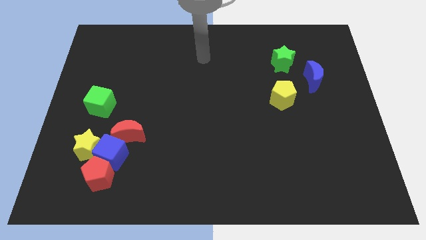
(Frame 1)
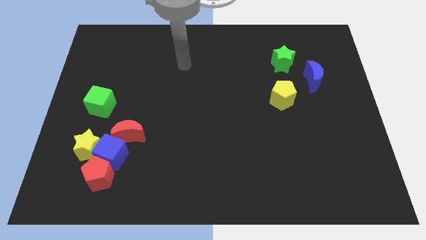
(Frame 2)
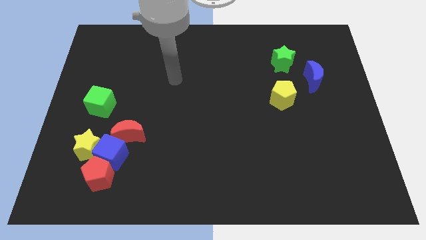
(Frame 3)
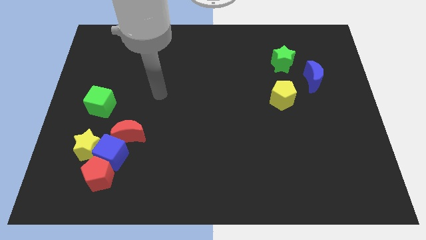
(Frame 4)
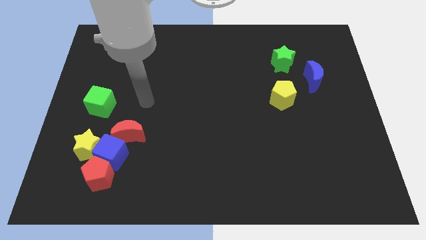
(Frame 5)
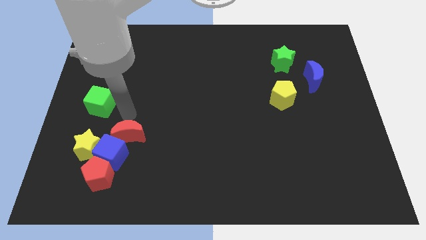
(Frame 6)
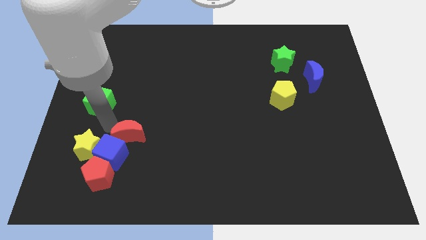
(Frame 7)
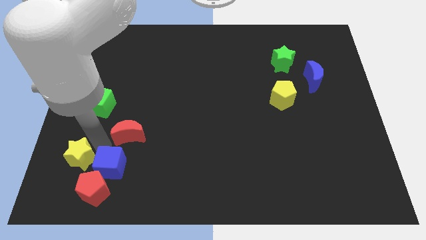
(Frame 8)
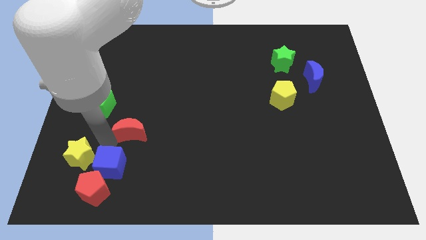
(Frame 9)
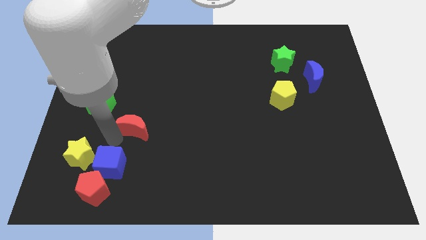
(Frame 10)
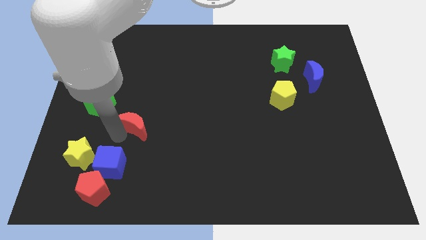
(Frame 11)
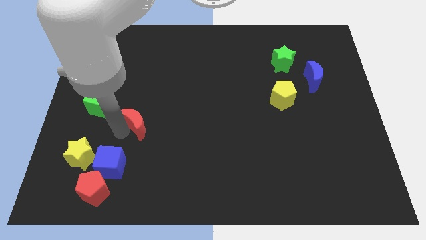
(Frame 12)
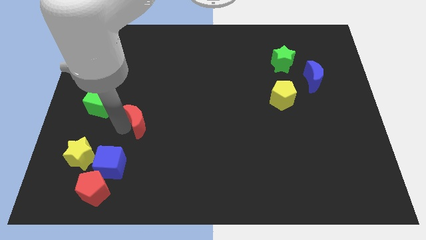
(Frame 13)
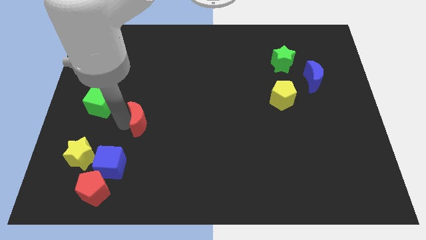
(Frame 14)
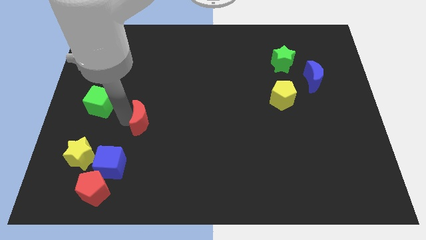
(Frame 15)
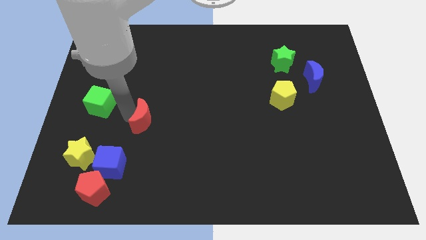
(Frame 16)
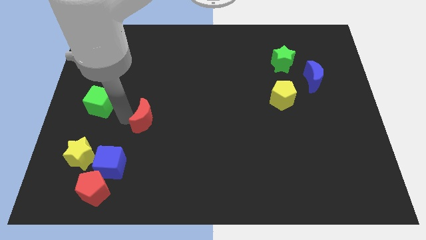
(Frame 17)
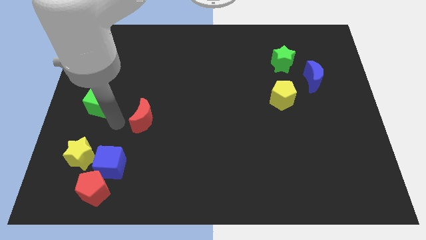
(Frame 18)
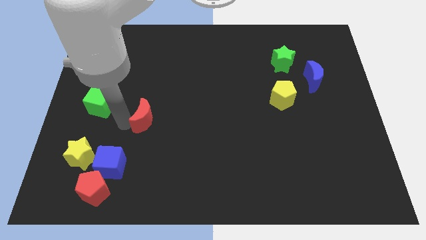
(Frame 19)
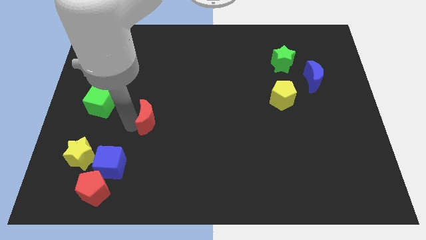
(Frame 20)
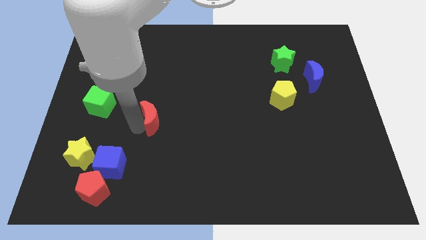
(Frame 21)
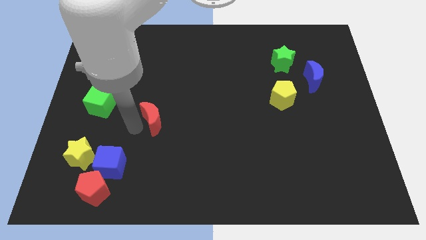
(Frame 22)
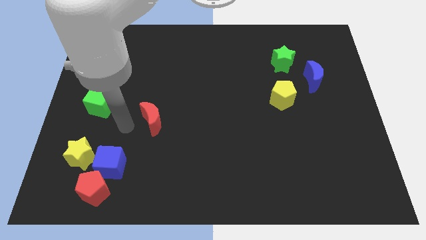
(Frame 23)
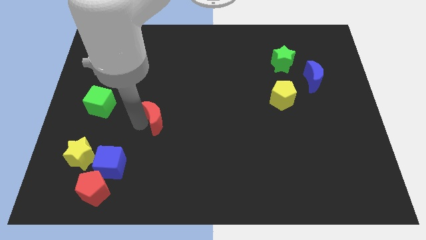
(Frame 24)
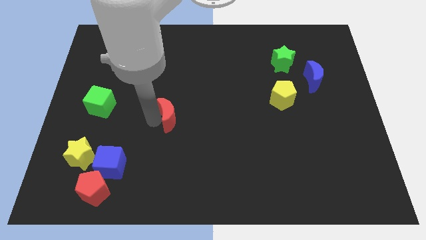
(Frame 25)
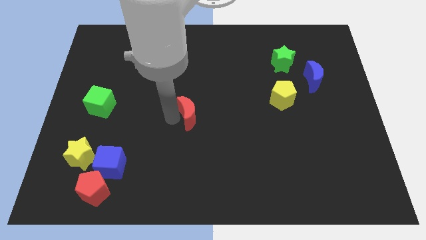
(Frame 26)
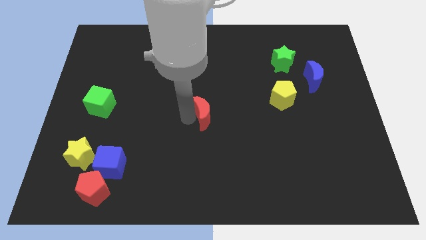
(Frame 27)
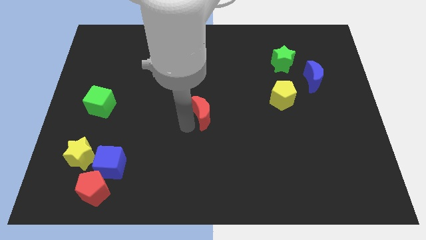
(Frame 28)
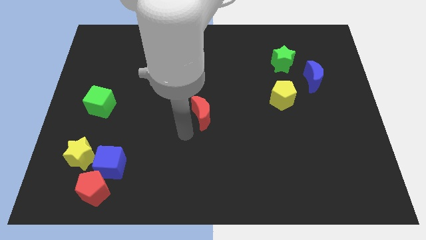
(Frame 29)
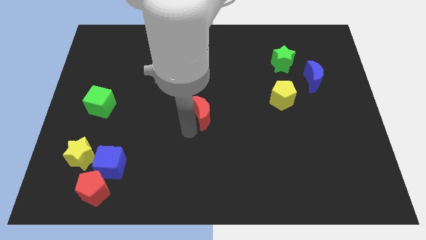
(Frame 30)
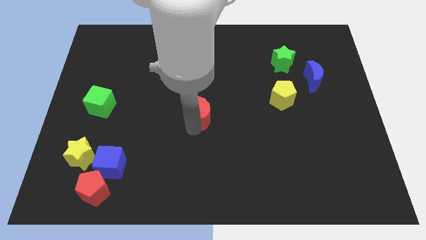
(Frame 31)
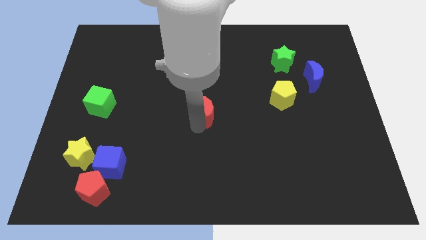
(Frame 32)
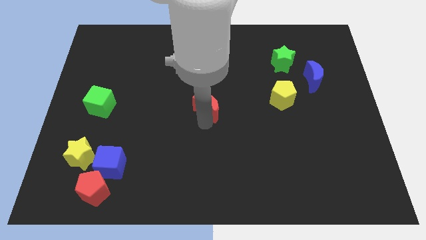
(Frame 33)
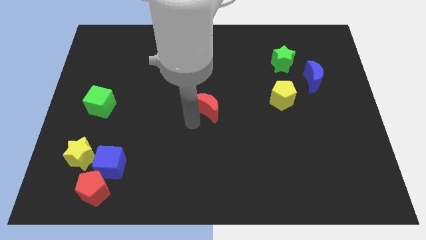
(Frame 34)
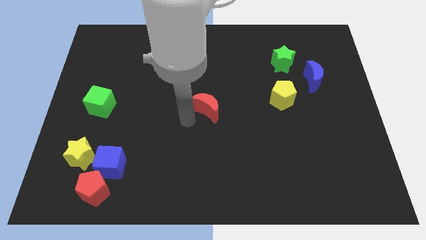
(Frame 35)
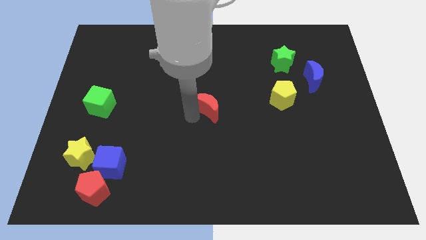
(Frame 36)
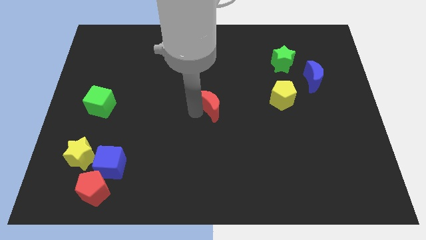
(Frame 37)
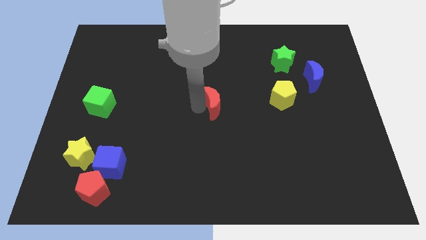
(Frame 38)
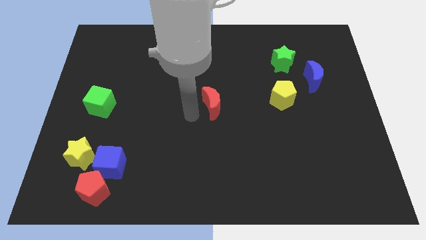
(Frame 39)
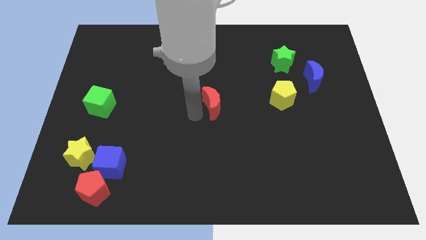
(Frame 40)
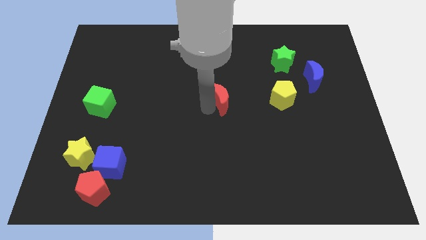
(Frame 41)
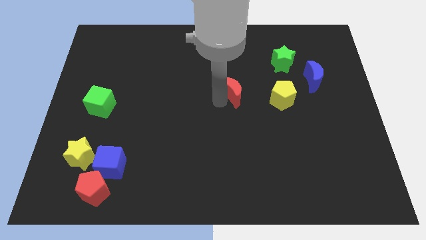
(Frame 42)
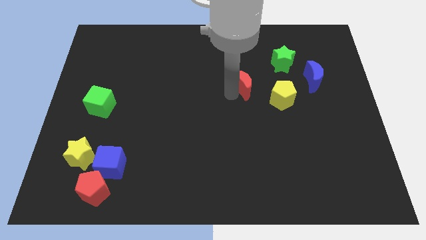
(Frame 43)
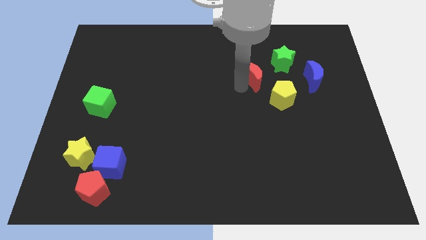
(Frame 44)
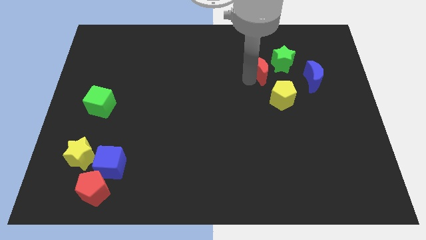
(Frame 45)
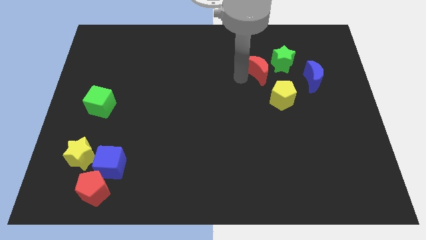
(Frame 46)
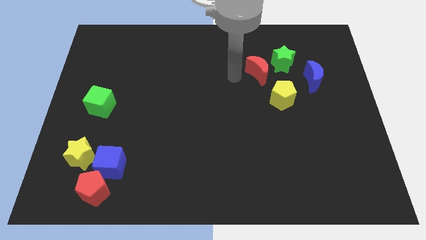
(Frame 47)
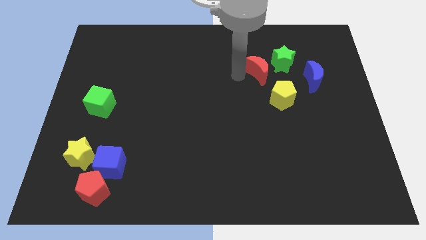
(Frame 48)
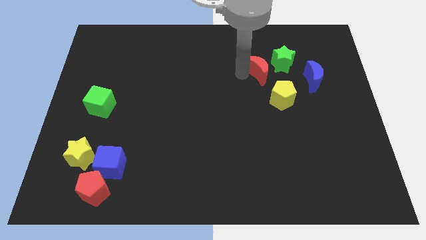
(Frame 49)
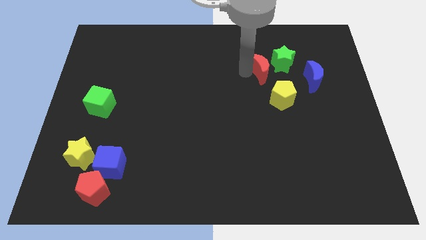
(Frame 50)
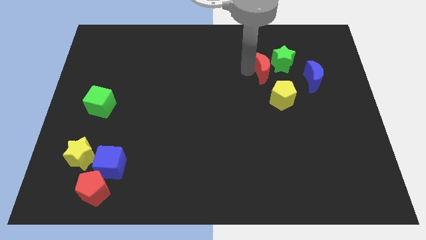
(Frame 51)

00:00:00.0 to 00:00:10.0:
move the red moon towards the green star

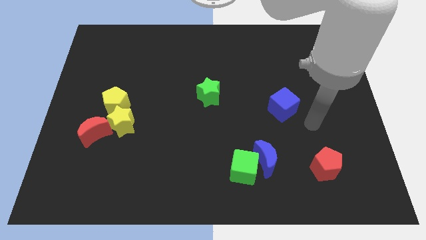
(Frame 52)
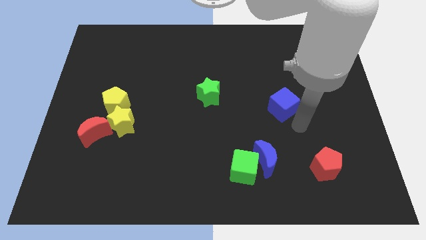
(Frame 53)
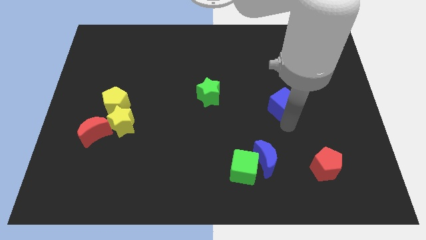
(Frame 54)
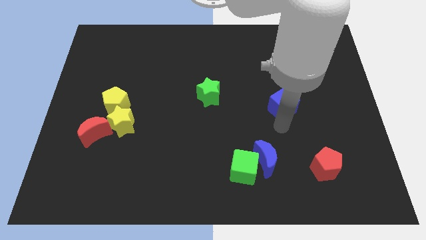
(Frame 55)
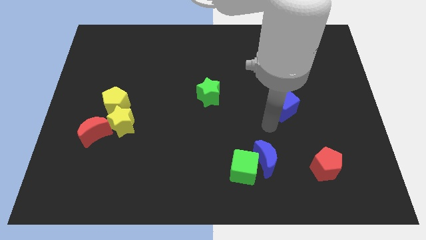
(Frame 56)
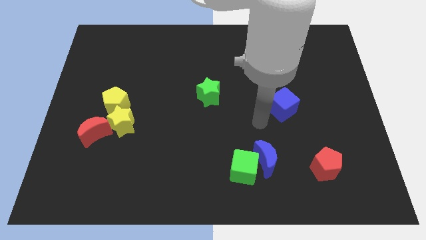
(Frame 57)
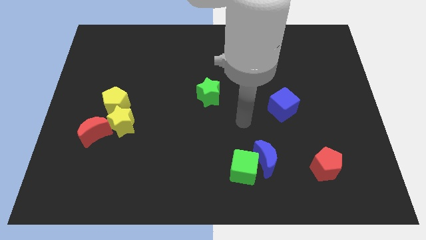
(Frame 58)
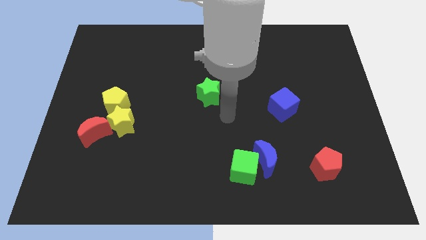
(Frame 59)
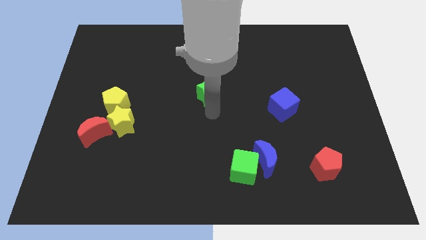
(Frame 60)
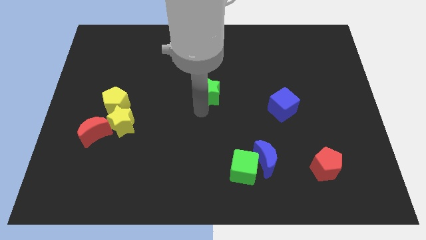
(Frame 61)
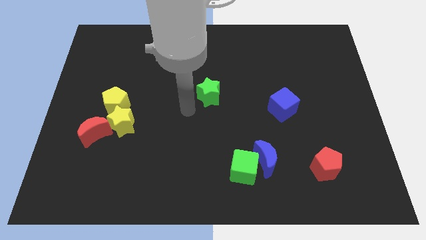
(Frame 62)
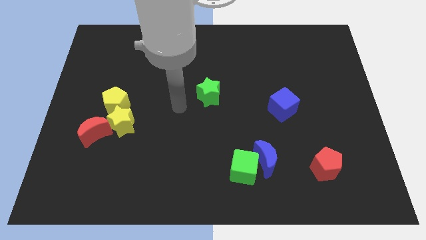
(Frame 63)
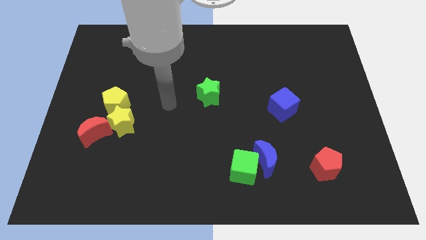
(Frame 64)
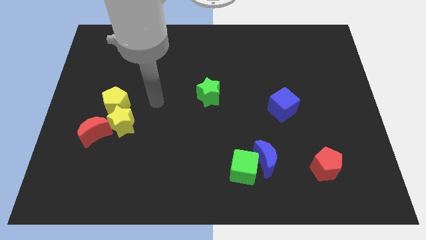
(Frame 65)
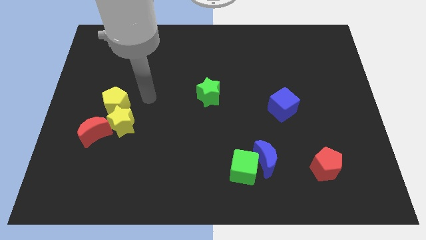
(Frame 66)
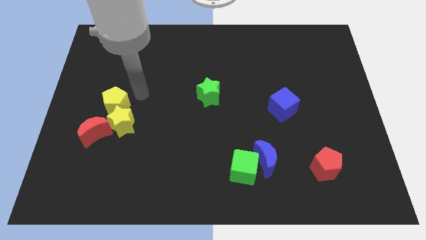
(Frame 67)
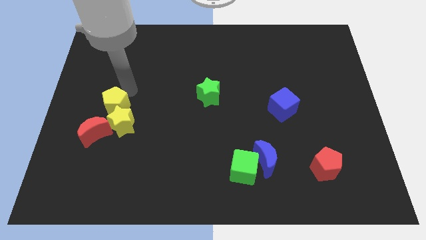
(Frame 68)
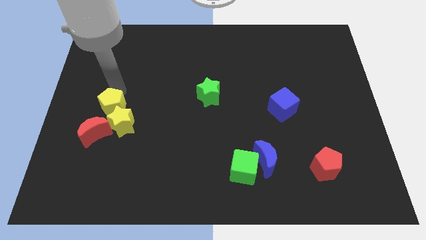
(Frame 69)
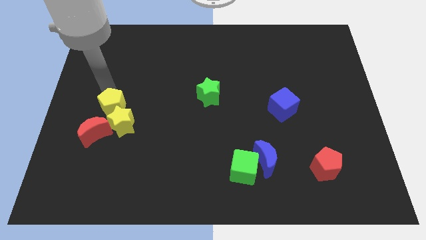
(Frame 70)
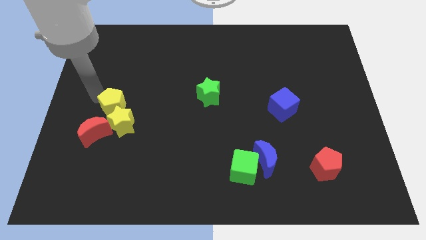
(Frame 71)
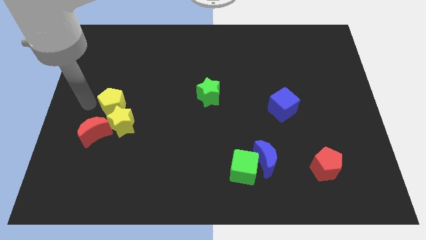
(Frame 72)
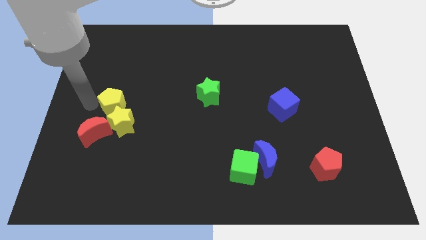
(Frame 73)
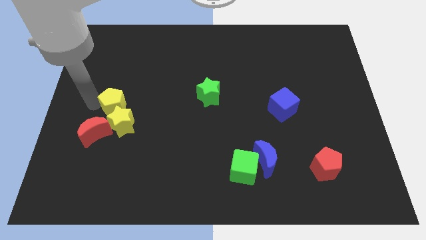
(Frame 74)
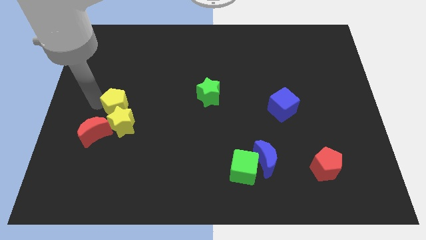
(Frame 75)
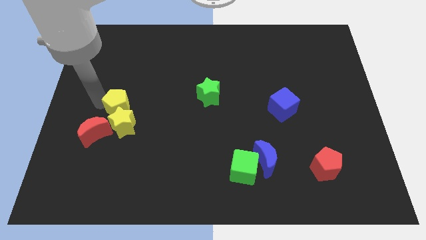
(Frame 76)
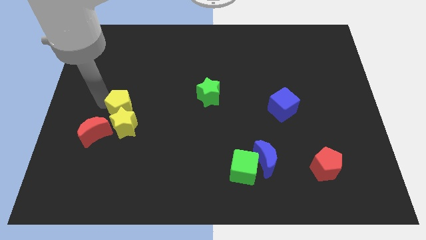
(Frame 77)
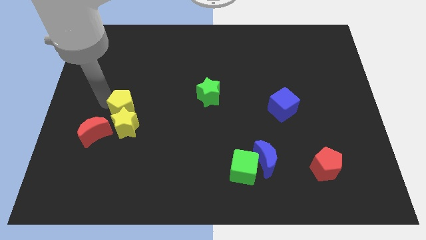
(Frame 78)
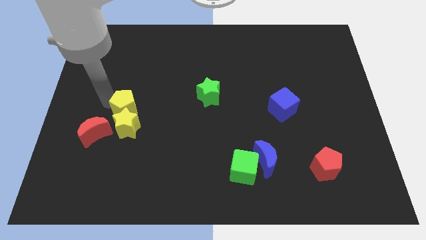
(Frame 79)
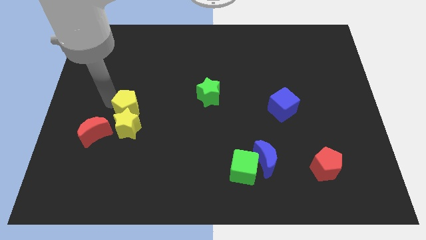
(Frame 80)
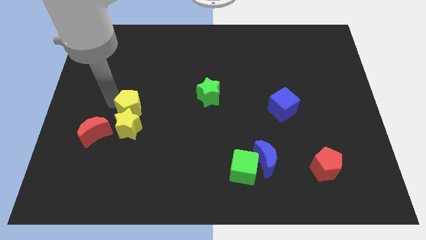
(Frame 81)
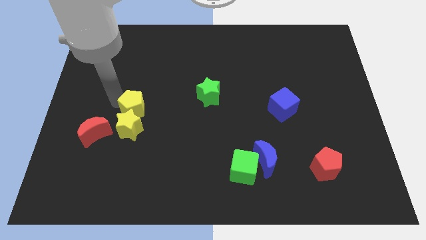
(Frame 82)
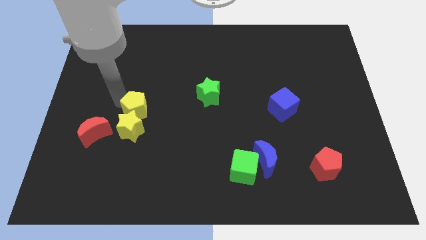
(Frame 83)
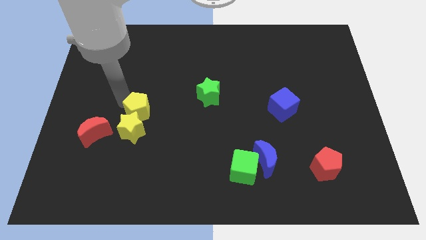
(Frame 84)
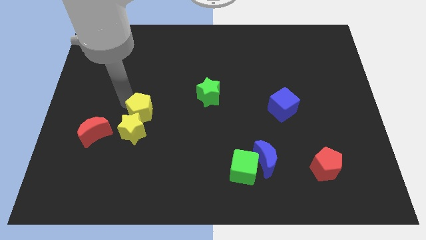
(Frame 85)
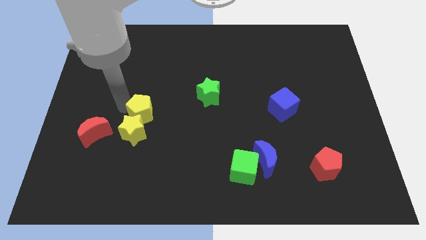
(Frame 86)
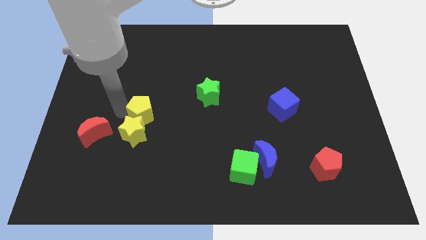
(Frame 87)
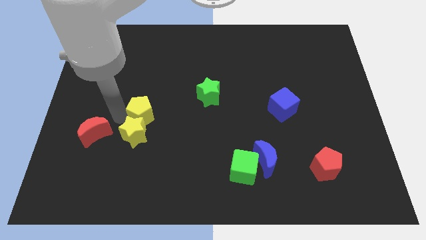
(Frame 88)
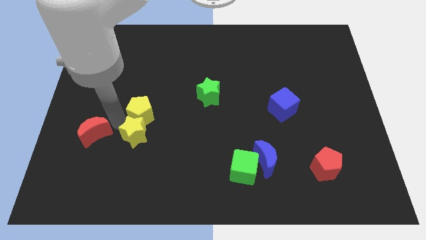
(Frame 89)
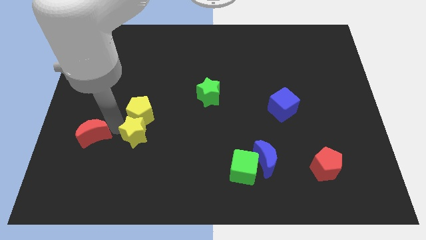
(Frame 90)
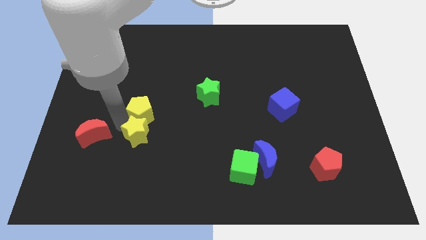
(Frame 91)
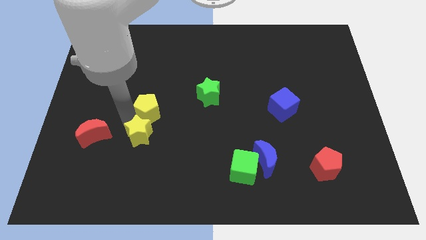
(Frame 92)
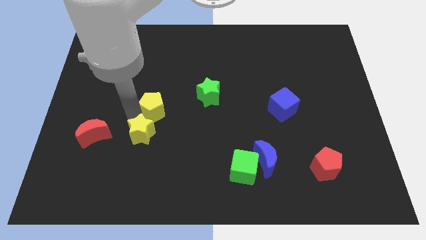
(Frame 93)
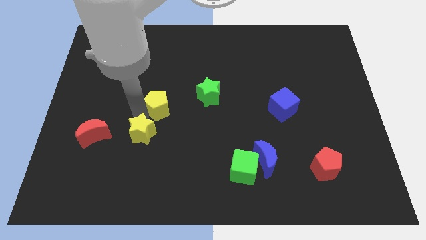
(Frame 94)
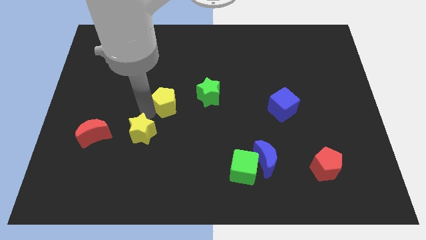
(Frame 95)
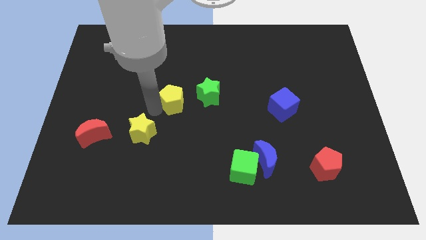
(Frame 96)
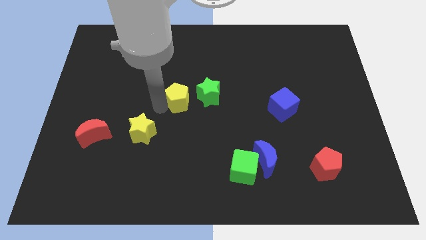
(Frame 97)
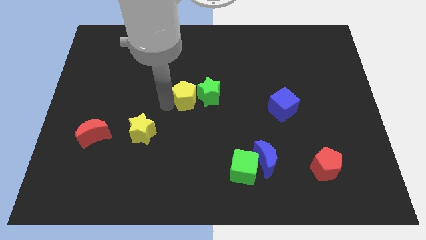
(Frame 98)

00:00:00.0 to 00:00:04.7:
move the yellow pentagon to the green star
